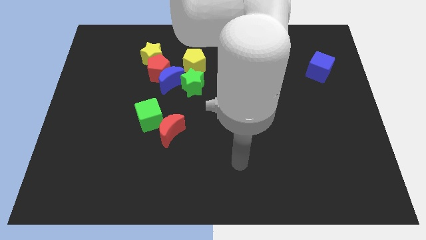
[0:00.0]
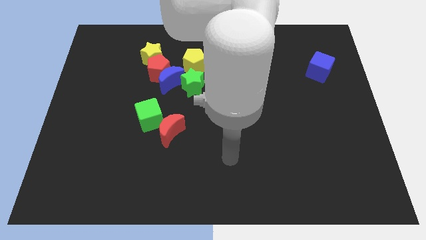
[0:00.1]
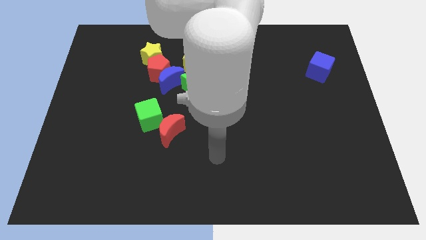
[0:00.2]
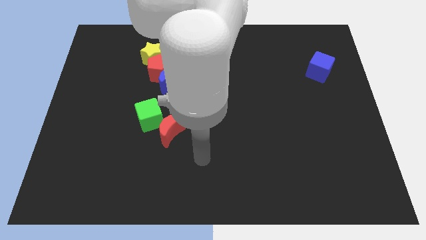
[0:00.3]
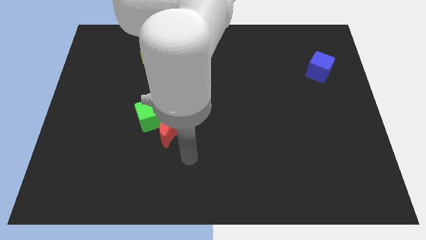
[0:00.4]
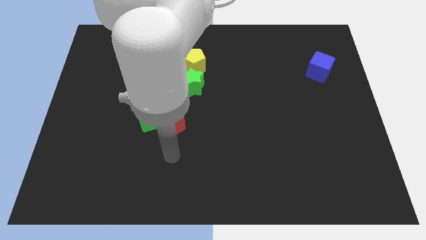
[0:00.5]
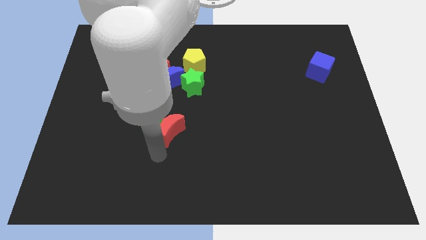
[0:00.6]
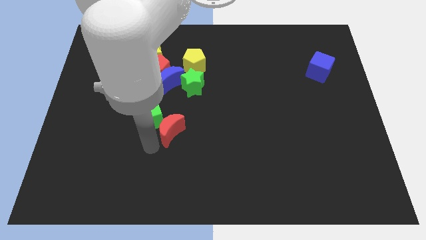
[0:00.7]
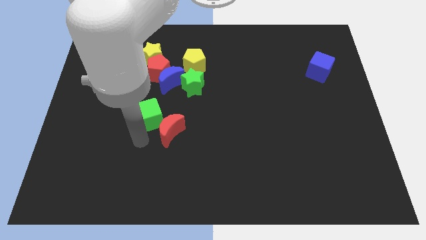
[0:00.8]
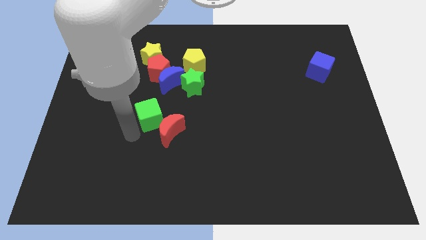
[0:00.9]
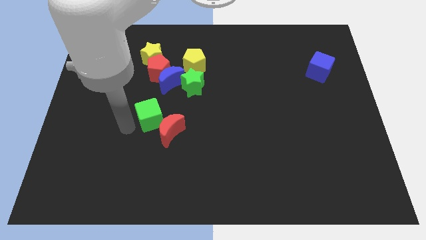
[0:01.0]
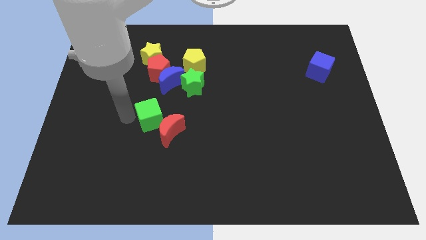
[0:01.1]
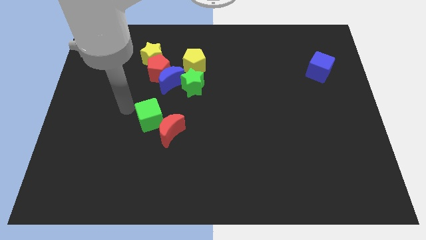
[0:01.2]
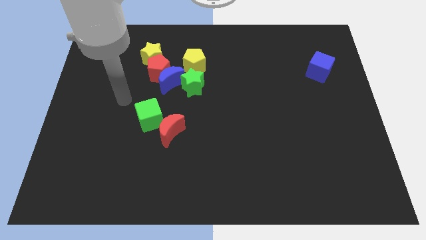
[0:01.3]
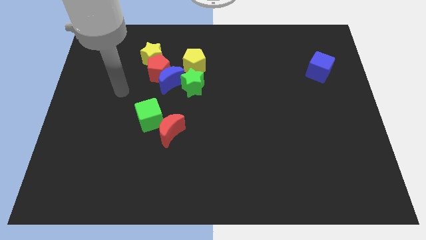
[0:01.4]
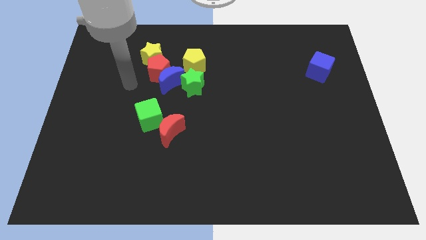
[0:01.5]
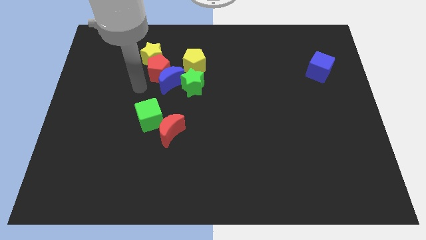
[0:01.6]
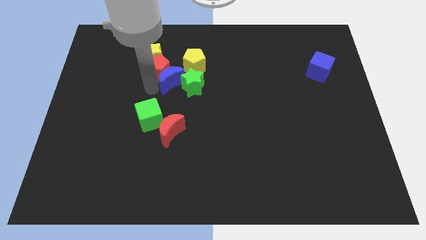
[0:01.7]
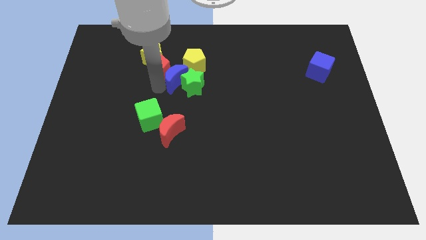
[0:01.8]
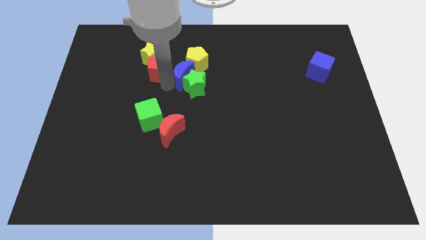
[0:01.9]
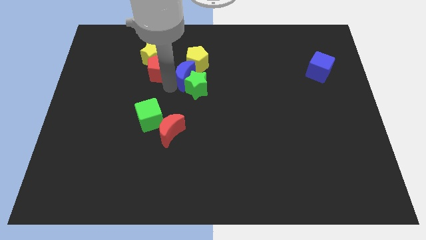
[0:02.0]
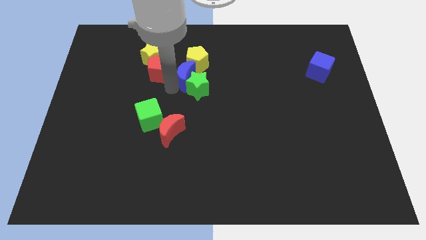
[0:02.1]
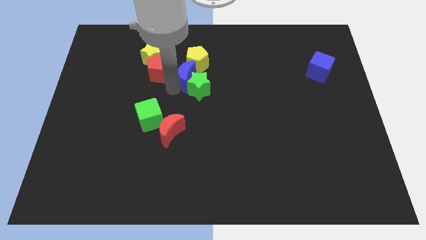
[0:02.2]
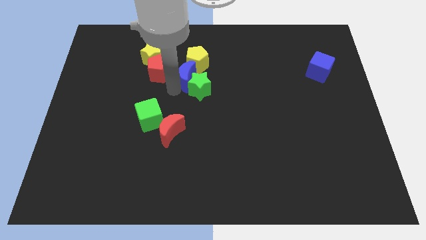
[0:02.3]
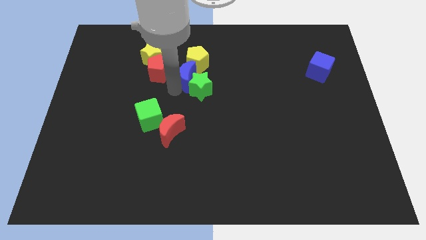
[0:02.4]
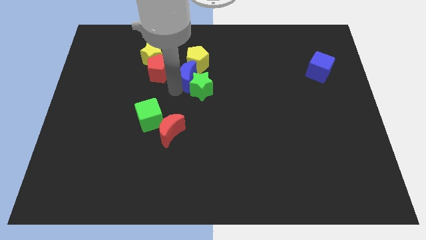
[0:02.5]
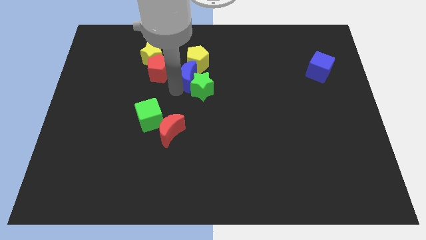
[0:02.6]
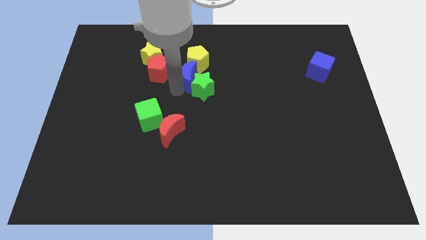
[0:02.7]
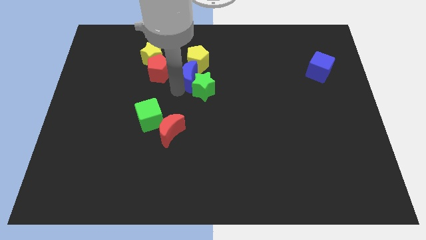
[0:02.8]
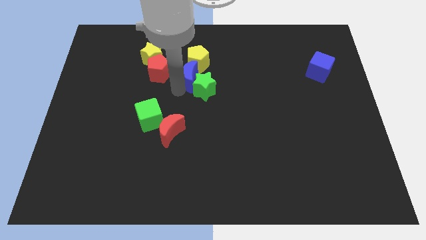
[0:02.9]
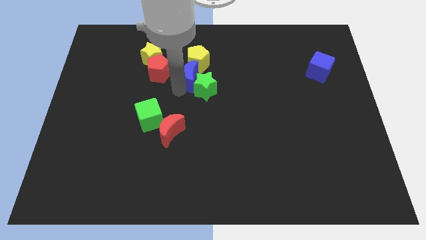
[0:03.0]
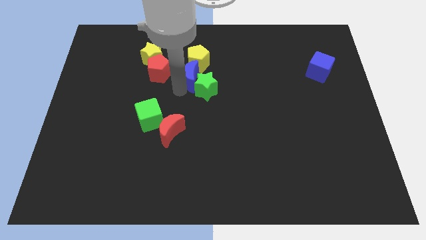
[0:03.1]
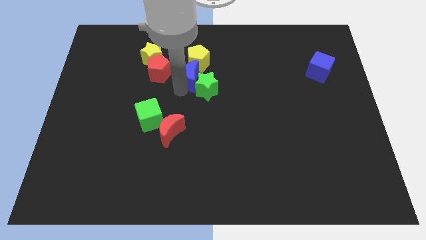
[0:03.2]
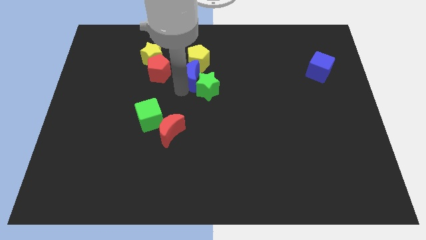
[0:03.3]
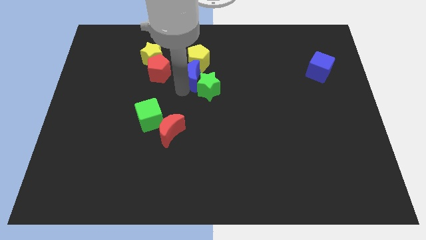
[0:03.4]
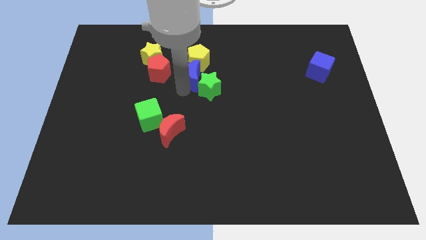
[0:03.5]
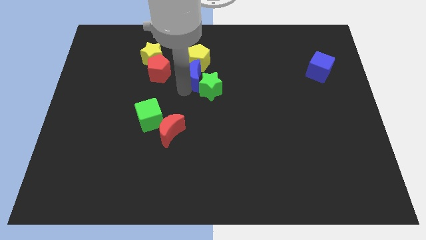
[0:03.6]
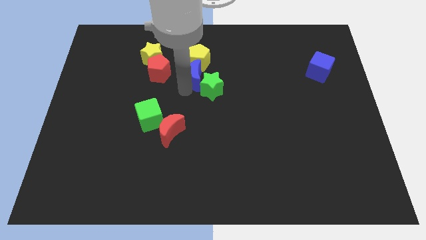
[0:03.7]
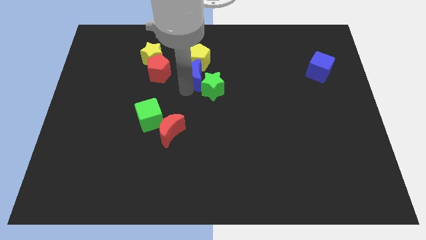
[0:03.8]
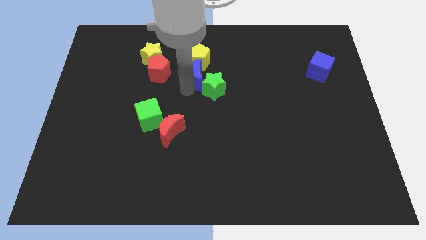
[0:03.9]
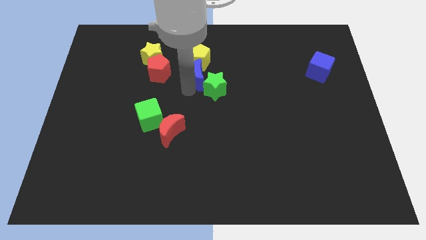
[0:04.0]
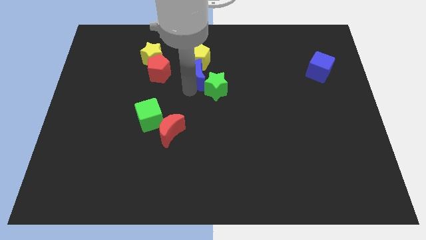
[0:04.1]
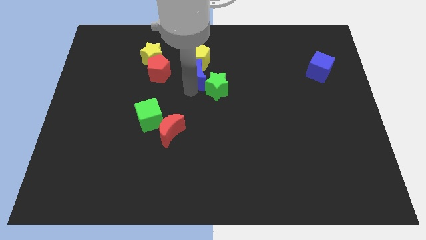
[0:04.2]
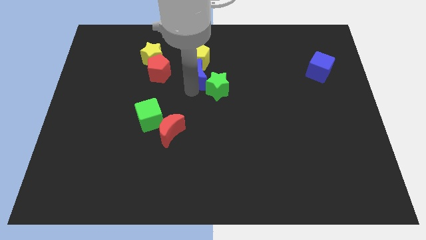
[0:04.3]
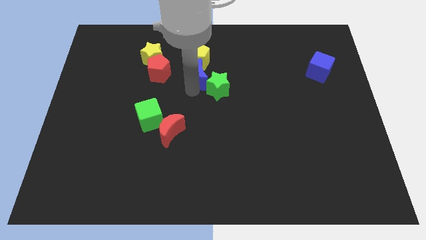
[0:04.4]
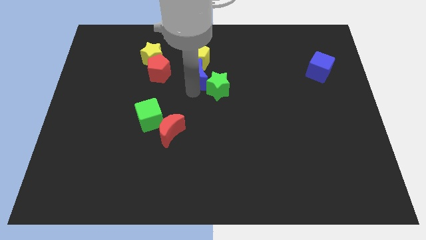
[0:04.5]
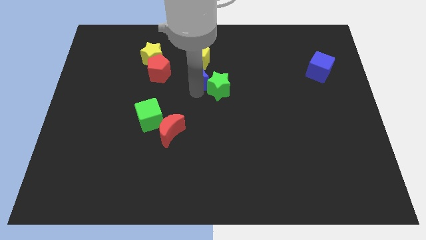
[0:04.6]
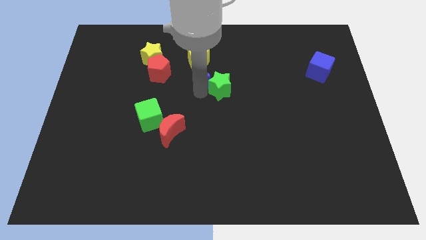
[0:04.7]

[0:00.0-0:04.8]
slide the green star a bit right

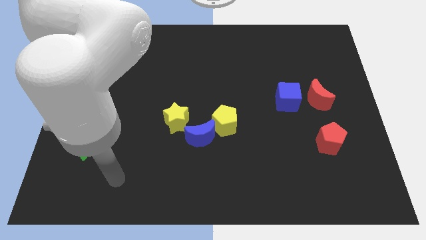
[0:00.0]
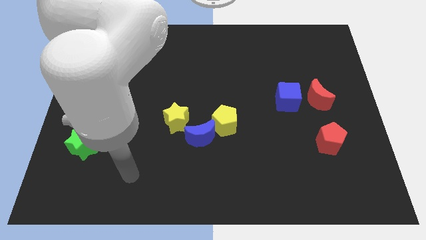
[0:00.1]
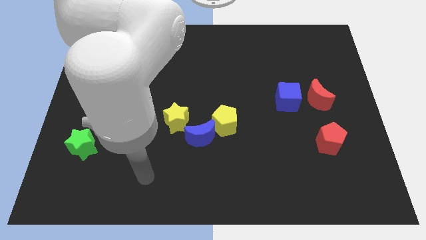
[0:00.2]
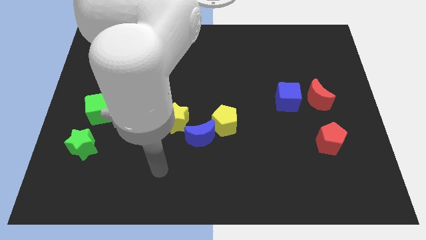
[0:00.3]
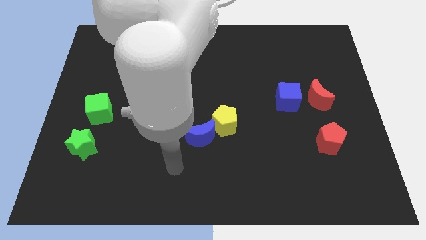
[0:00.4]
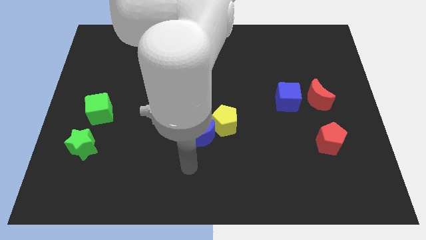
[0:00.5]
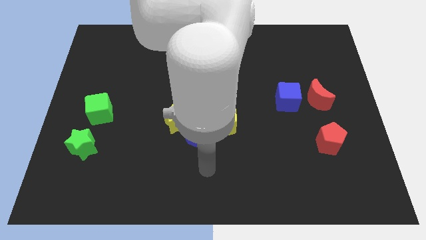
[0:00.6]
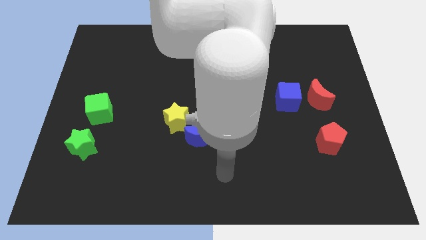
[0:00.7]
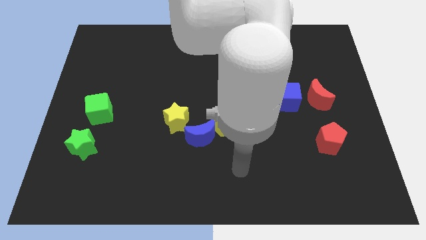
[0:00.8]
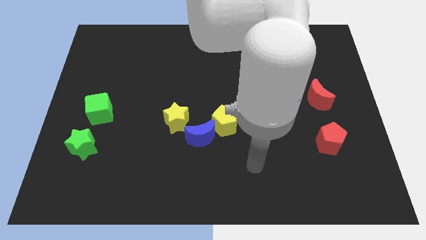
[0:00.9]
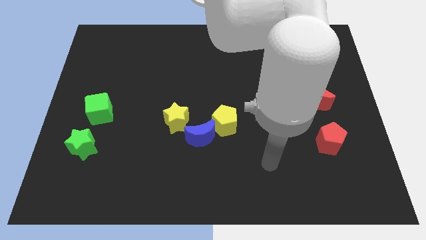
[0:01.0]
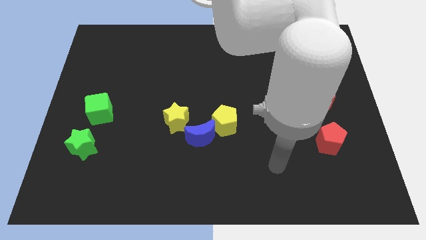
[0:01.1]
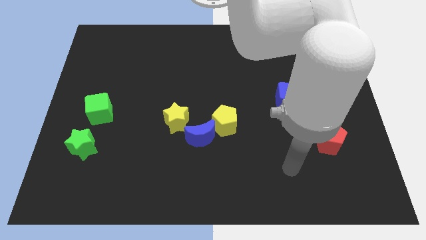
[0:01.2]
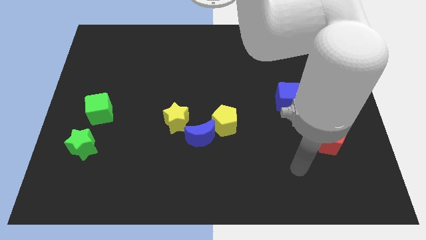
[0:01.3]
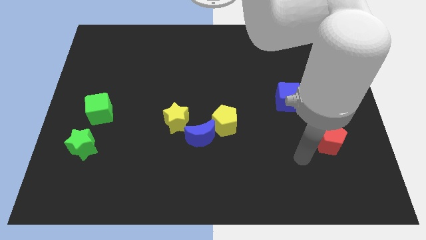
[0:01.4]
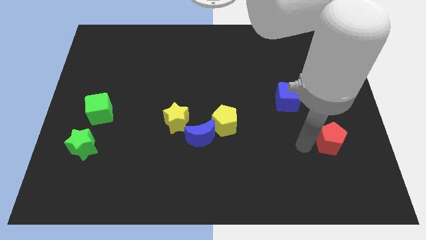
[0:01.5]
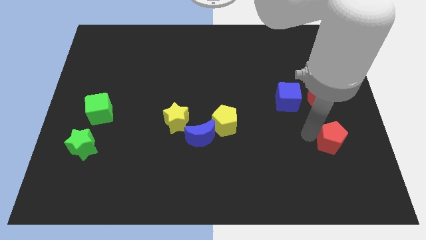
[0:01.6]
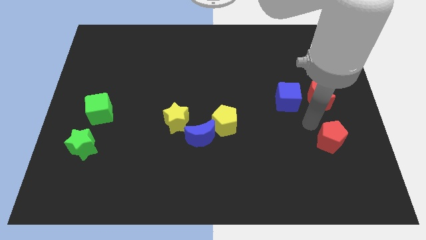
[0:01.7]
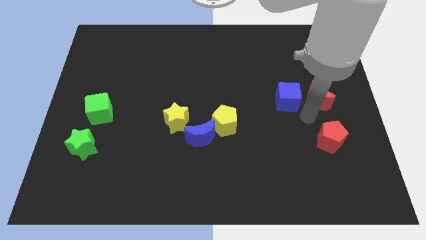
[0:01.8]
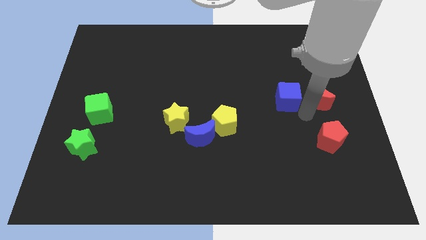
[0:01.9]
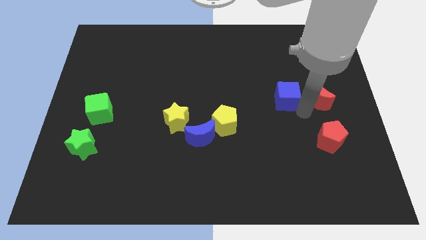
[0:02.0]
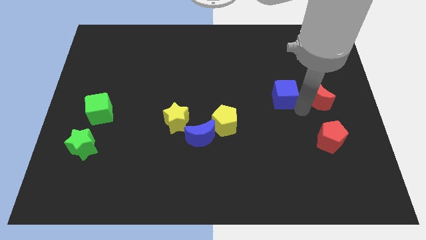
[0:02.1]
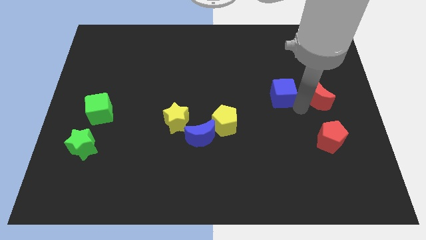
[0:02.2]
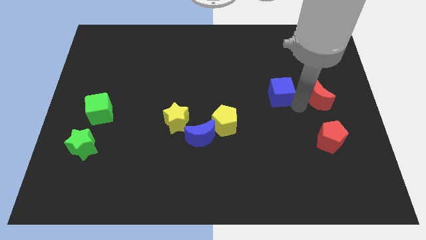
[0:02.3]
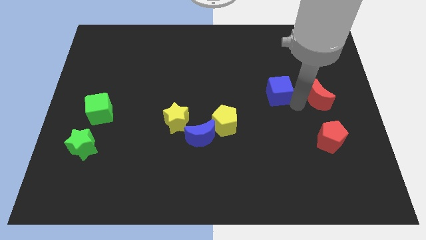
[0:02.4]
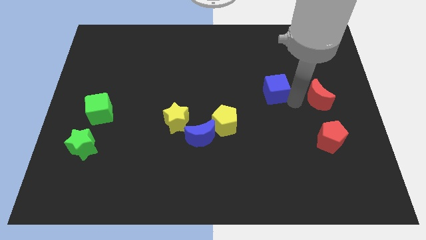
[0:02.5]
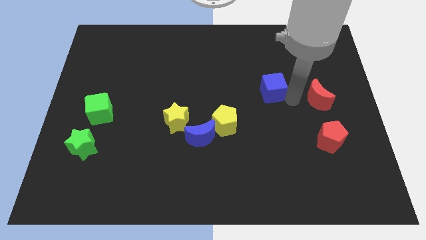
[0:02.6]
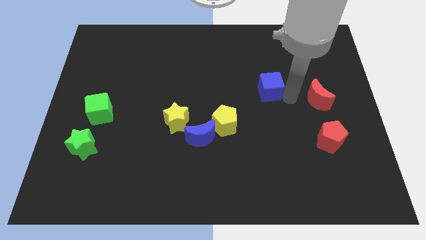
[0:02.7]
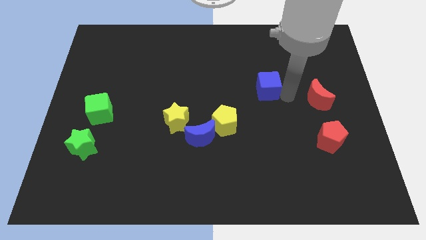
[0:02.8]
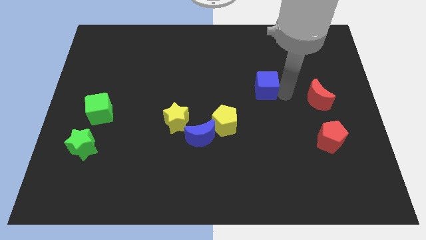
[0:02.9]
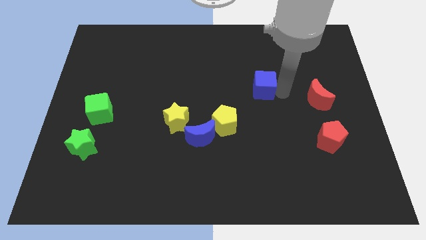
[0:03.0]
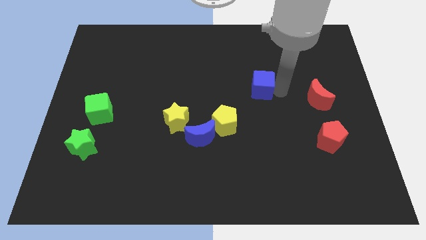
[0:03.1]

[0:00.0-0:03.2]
slightly push the blue cube upwards and to the left diagonally
